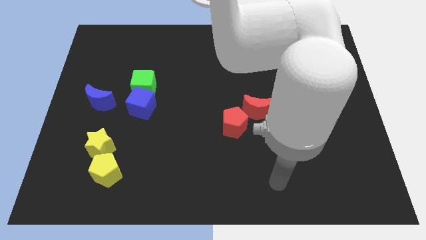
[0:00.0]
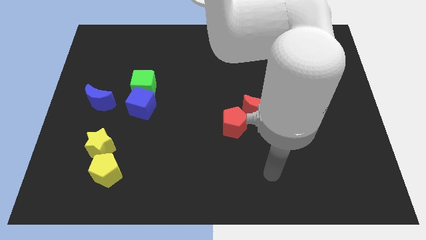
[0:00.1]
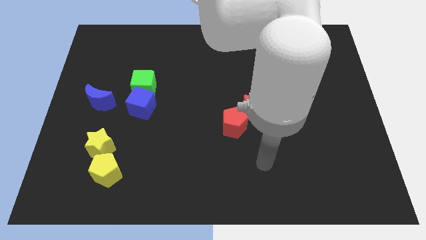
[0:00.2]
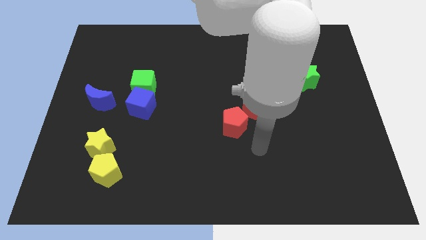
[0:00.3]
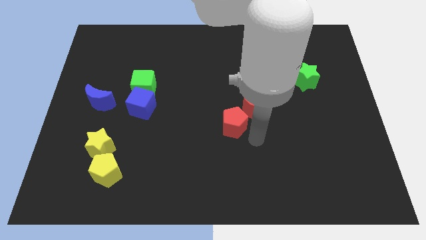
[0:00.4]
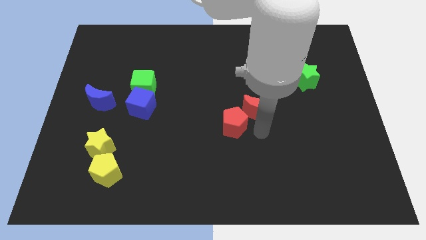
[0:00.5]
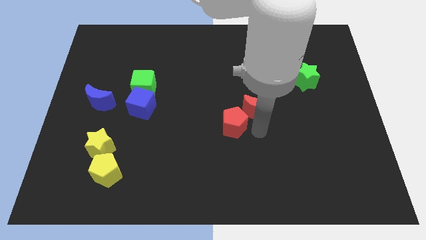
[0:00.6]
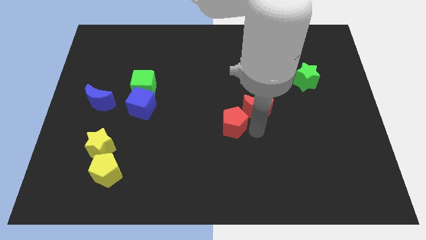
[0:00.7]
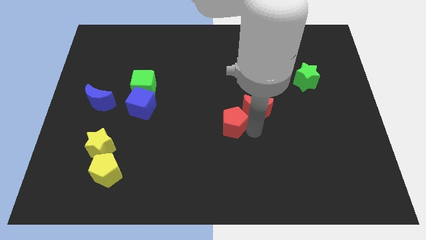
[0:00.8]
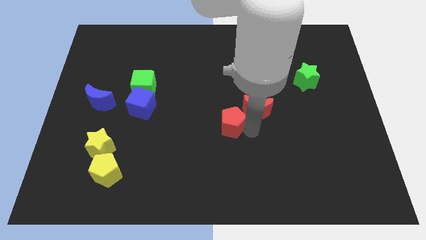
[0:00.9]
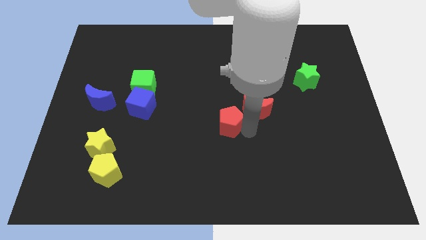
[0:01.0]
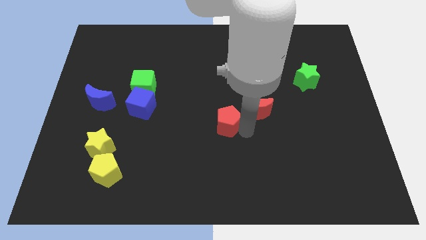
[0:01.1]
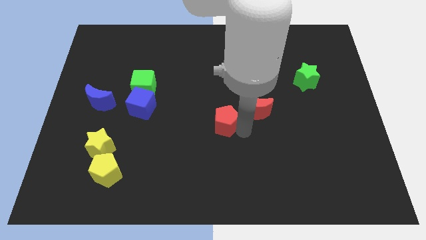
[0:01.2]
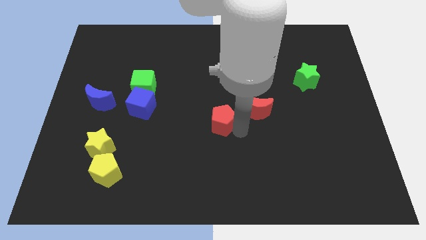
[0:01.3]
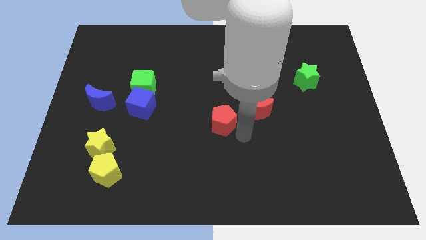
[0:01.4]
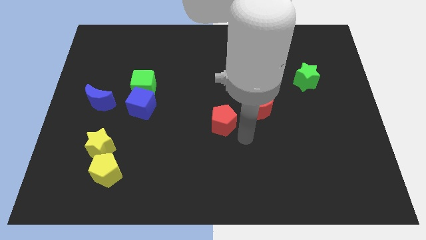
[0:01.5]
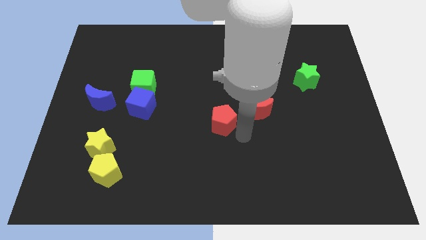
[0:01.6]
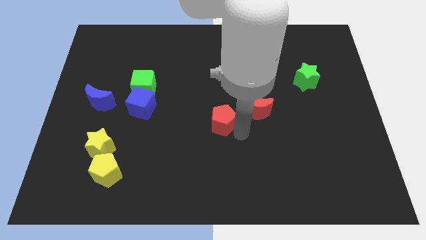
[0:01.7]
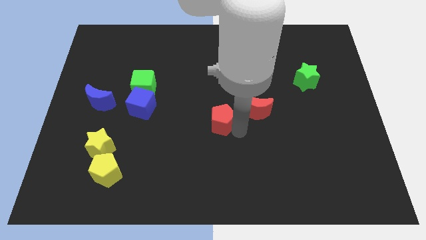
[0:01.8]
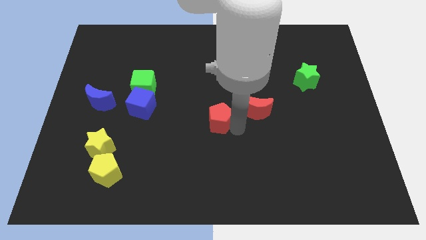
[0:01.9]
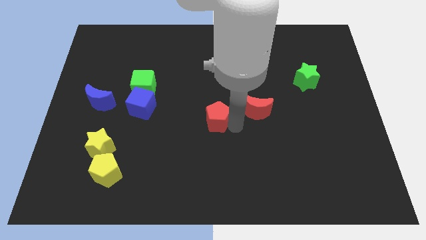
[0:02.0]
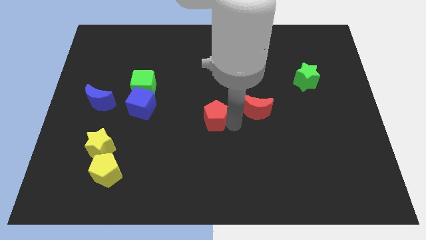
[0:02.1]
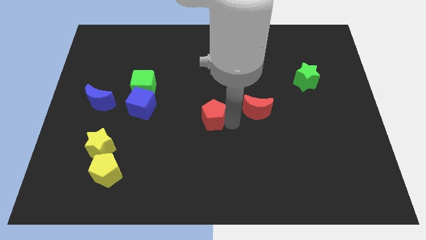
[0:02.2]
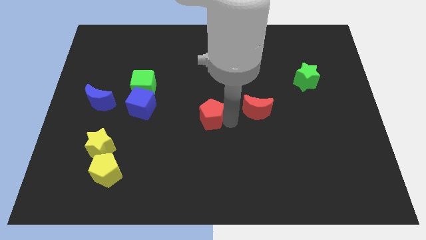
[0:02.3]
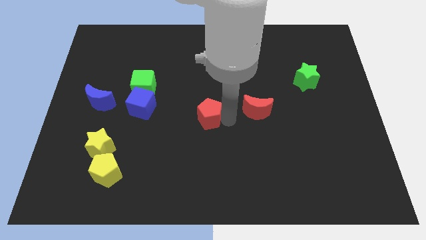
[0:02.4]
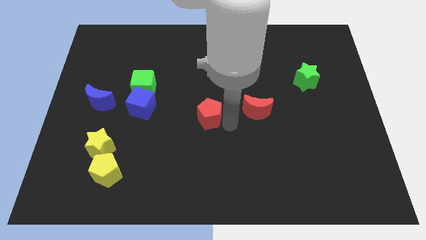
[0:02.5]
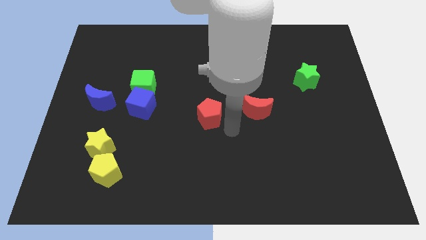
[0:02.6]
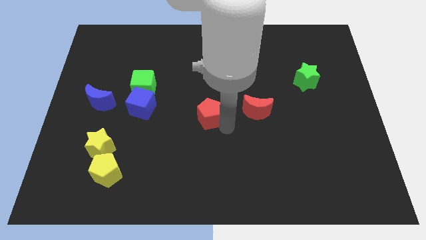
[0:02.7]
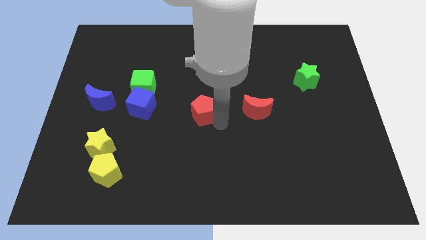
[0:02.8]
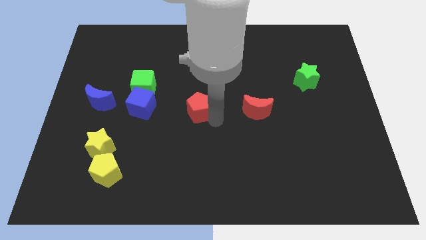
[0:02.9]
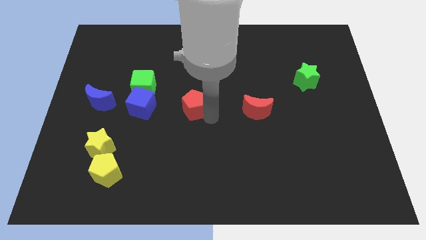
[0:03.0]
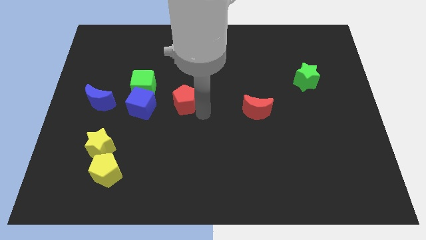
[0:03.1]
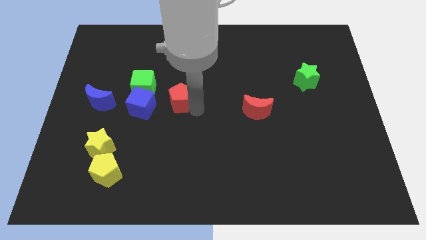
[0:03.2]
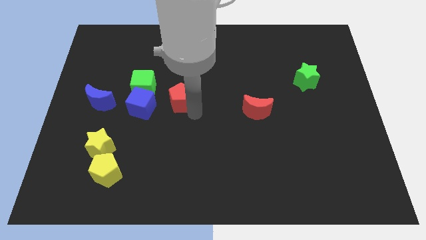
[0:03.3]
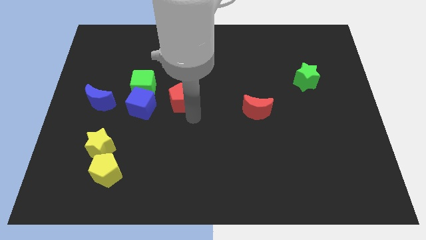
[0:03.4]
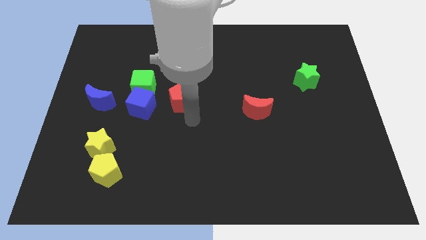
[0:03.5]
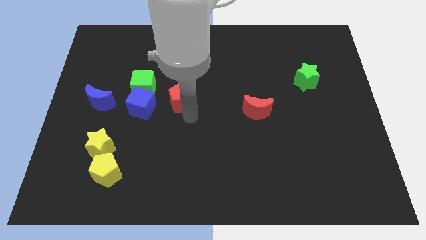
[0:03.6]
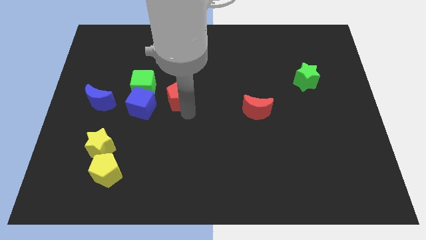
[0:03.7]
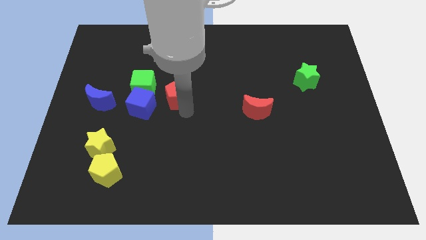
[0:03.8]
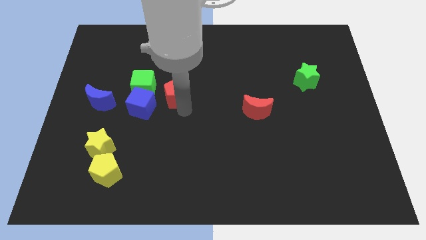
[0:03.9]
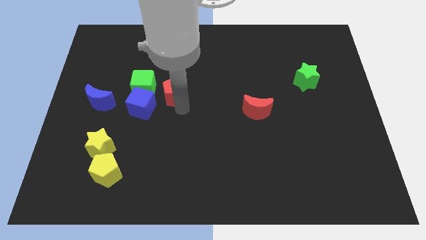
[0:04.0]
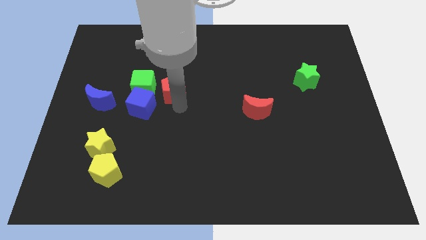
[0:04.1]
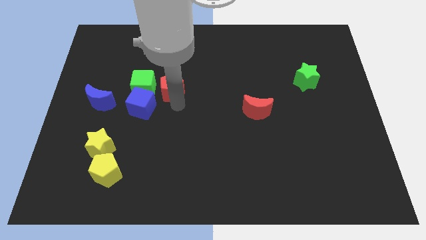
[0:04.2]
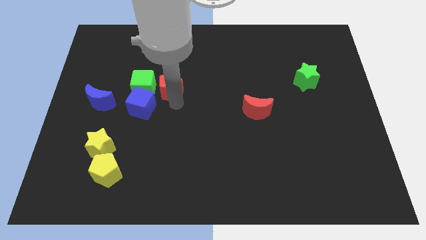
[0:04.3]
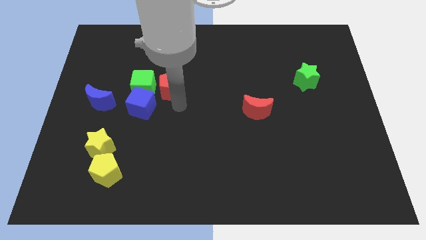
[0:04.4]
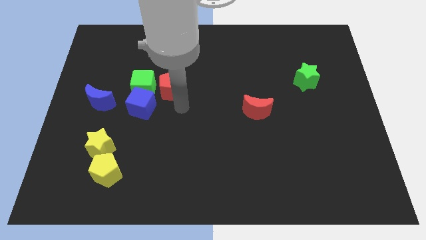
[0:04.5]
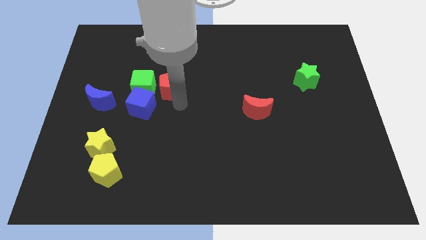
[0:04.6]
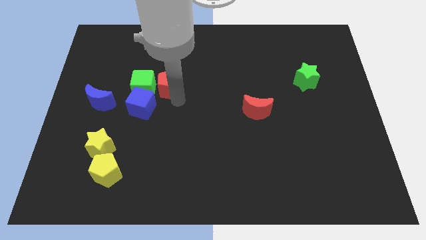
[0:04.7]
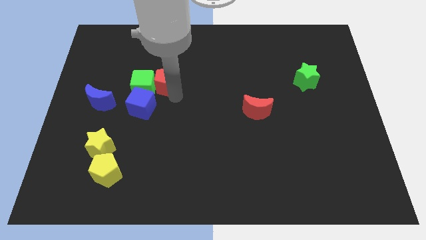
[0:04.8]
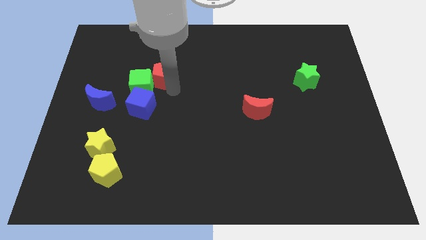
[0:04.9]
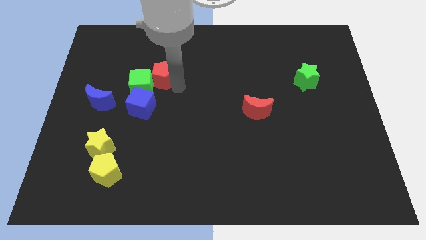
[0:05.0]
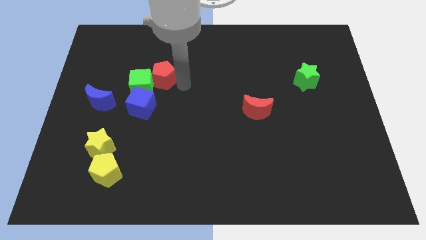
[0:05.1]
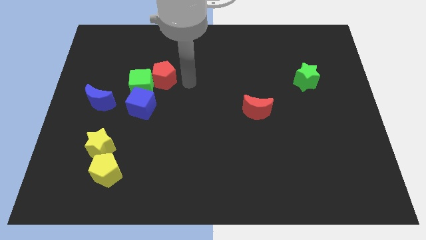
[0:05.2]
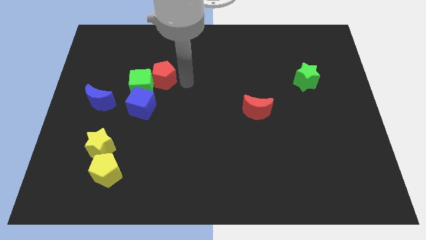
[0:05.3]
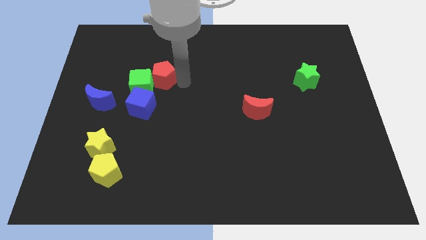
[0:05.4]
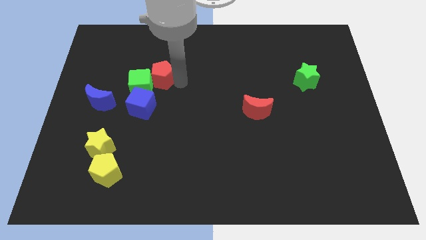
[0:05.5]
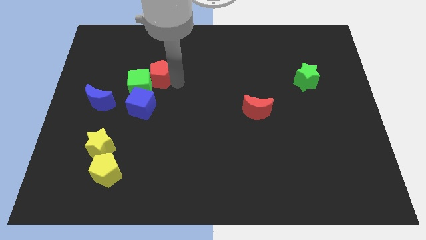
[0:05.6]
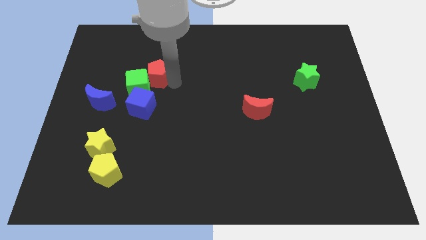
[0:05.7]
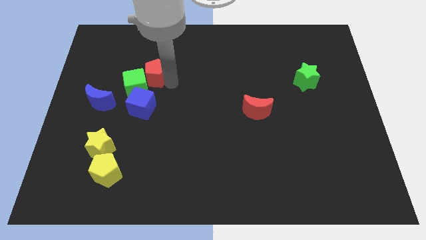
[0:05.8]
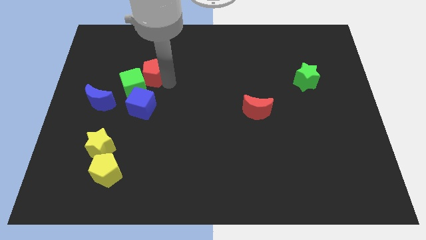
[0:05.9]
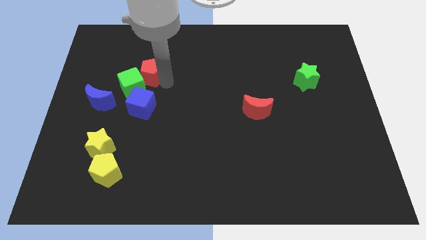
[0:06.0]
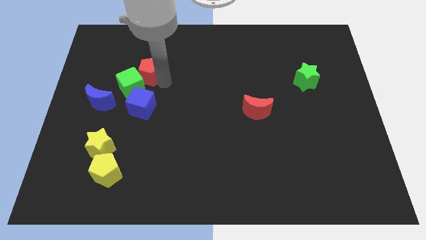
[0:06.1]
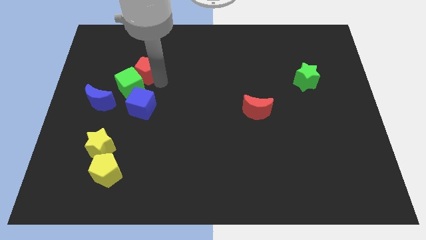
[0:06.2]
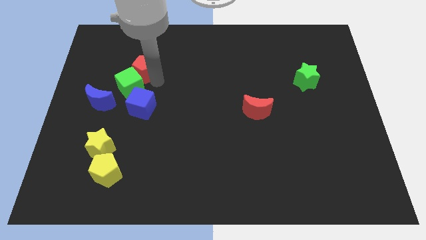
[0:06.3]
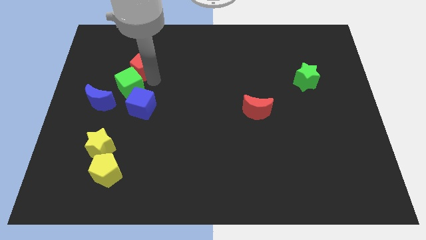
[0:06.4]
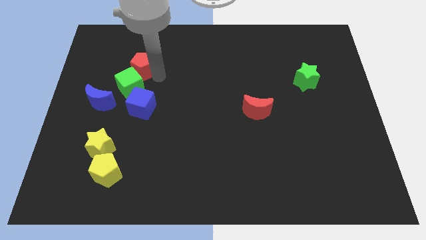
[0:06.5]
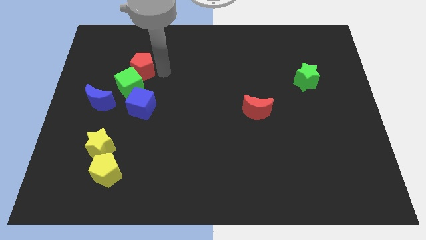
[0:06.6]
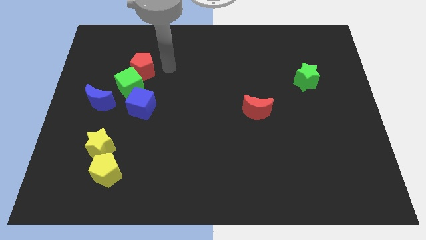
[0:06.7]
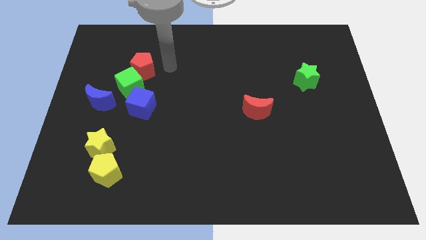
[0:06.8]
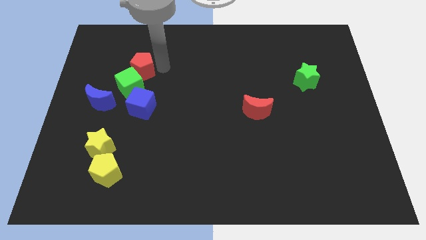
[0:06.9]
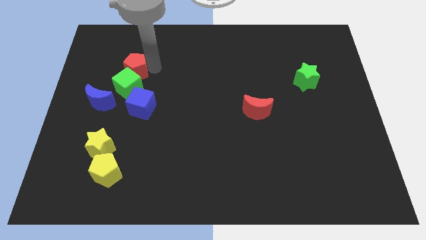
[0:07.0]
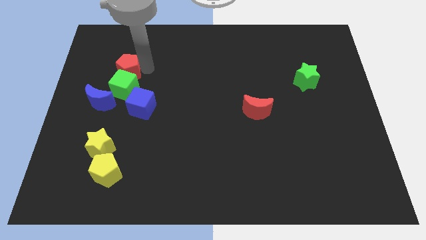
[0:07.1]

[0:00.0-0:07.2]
push the red pentagon diagonally up and to the left of the green cube

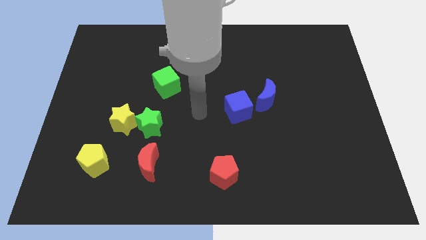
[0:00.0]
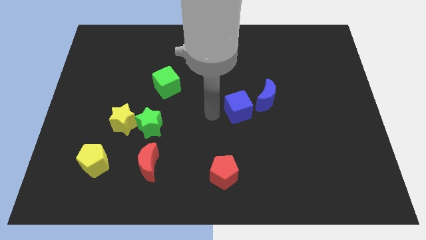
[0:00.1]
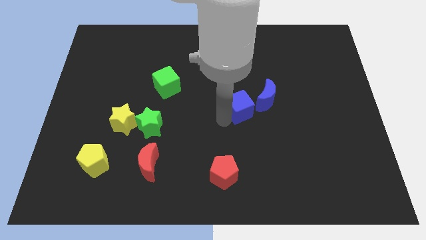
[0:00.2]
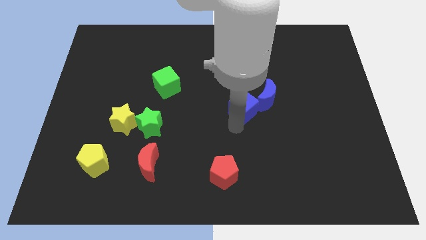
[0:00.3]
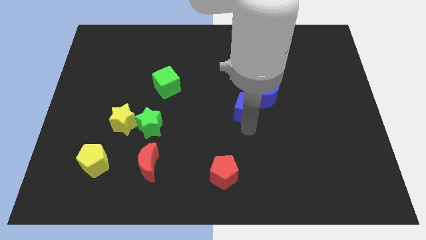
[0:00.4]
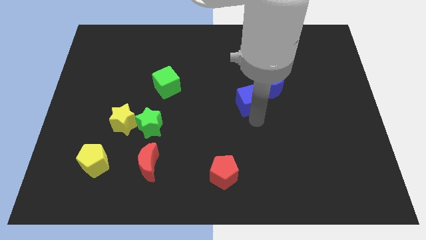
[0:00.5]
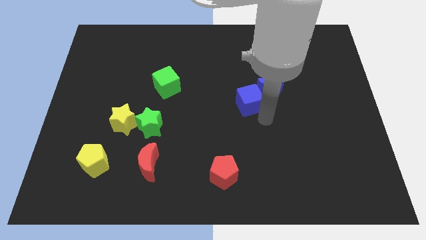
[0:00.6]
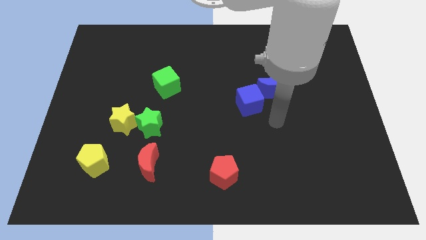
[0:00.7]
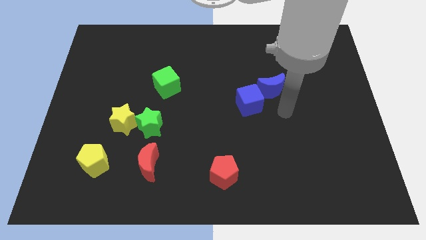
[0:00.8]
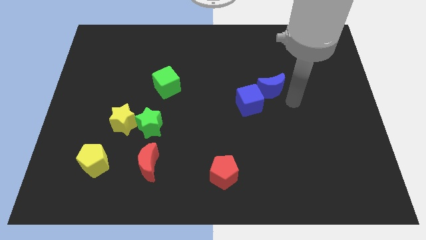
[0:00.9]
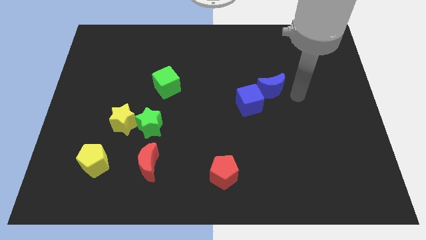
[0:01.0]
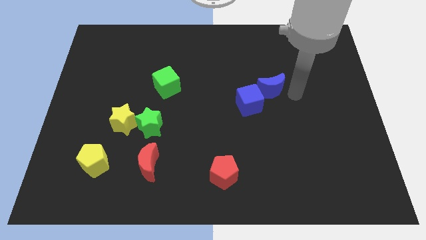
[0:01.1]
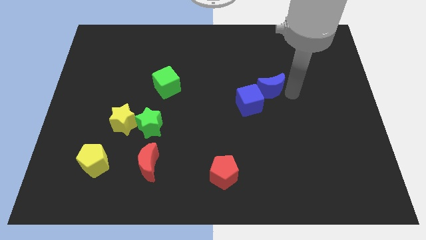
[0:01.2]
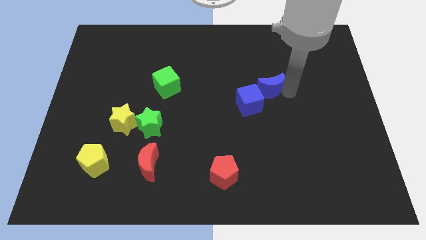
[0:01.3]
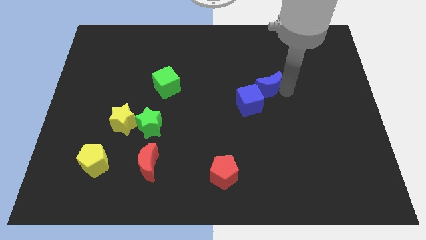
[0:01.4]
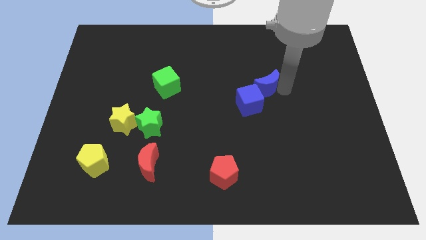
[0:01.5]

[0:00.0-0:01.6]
move the blue moon to the top side of the blue cube
